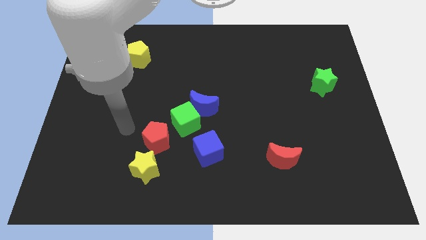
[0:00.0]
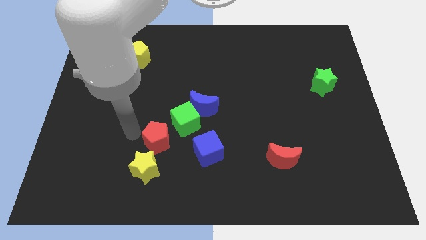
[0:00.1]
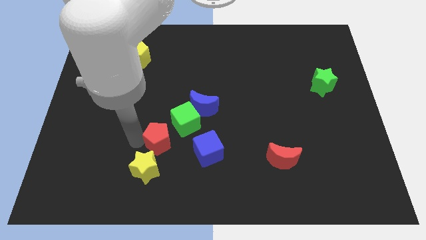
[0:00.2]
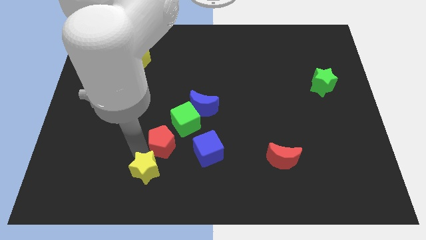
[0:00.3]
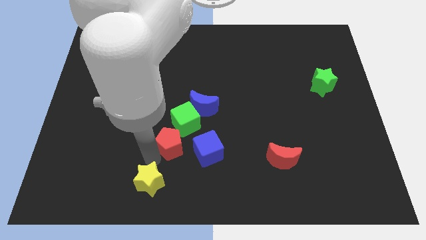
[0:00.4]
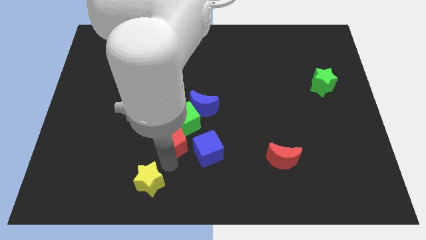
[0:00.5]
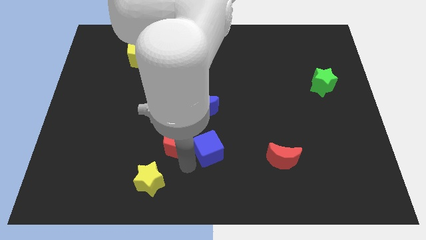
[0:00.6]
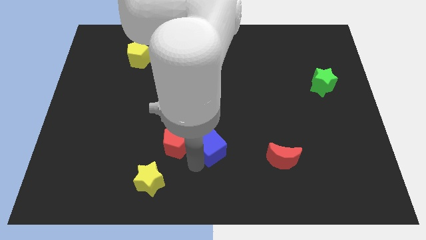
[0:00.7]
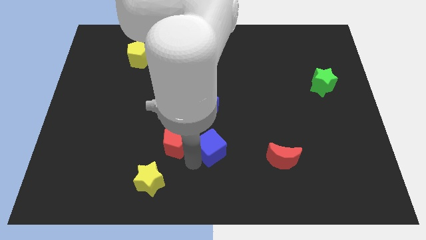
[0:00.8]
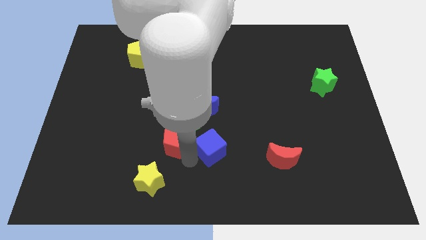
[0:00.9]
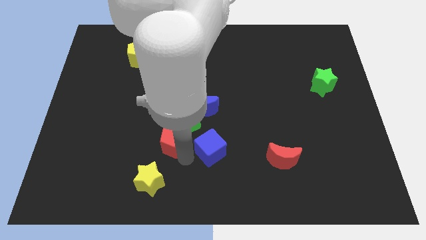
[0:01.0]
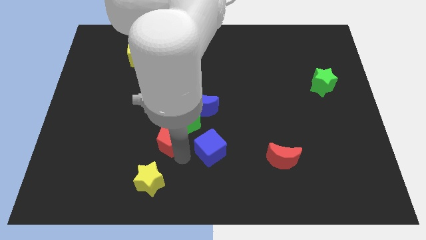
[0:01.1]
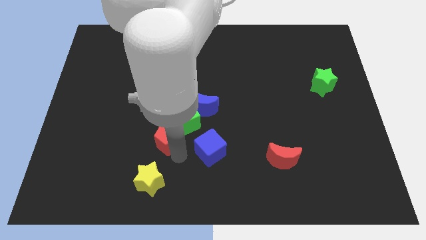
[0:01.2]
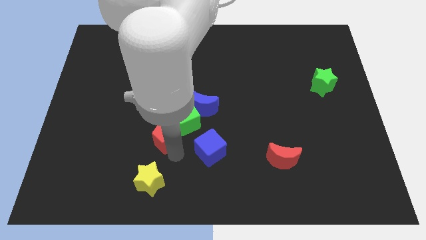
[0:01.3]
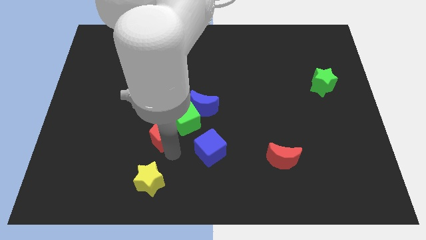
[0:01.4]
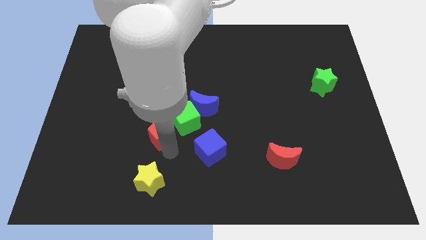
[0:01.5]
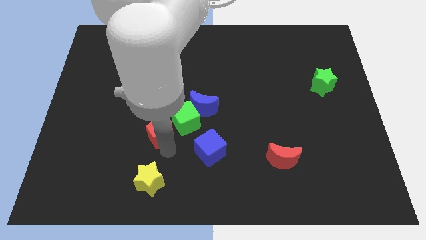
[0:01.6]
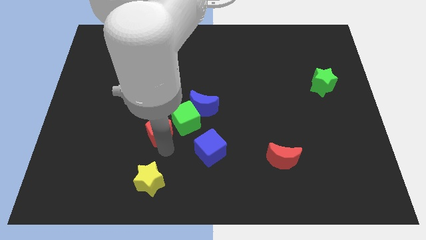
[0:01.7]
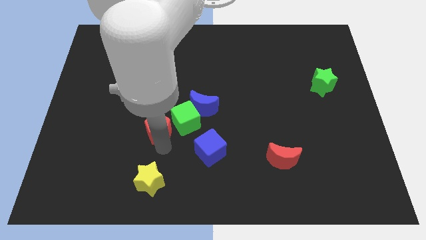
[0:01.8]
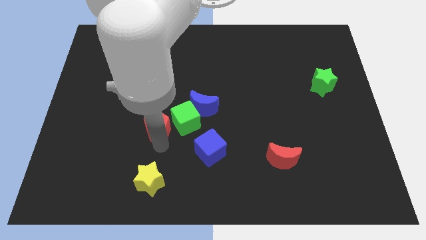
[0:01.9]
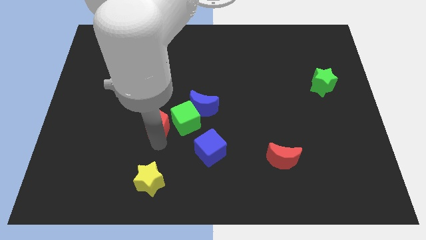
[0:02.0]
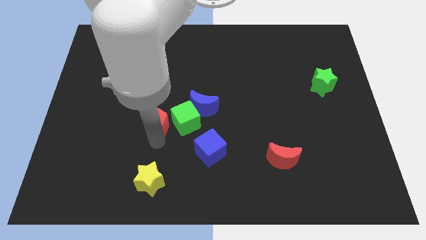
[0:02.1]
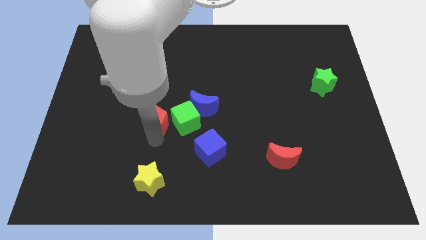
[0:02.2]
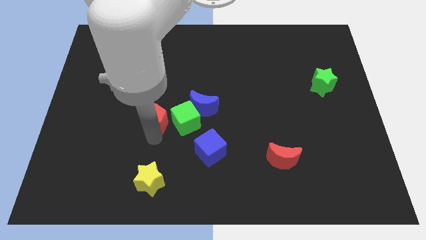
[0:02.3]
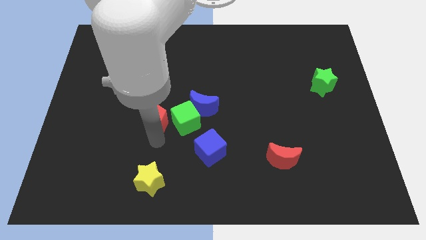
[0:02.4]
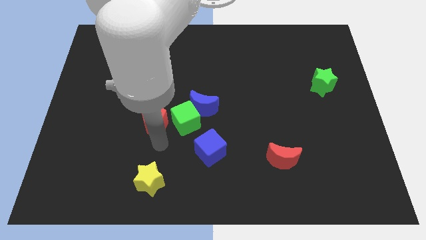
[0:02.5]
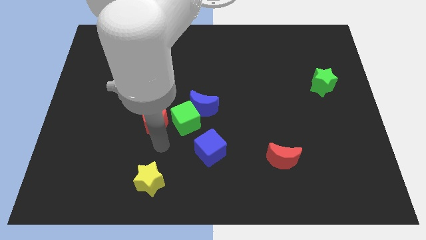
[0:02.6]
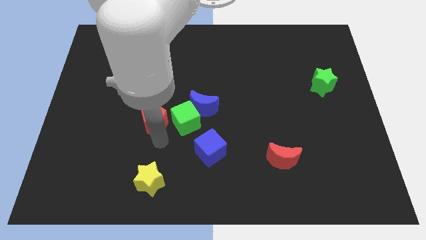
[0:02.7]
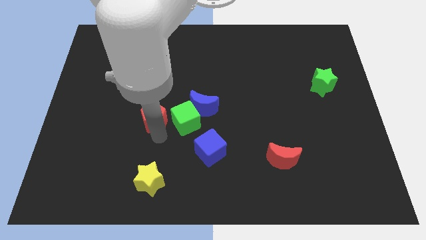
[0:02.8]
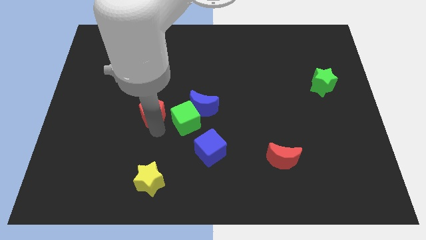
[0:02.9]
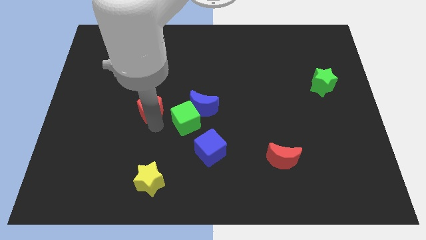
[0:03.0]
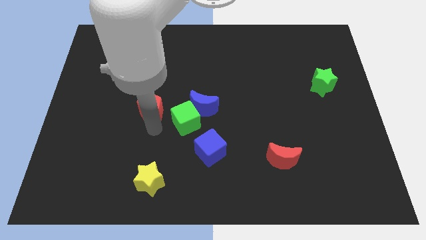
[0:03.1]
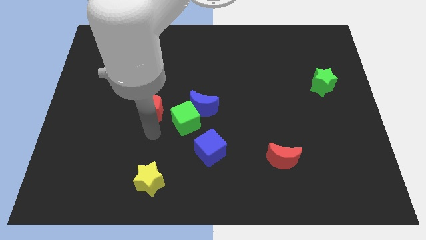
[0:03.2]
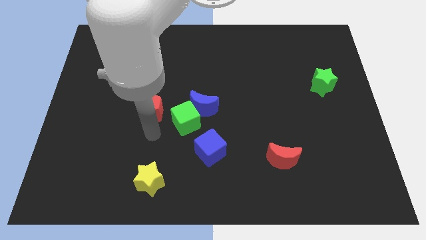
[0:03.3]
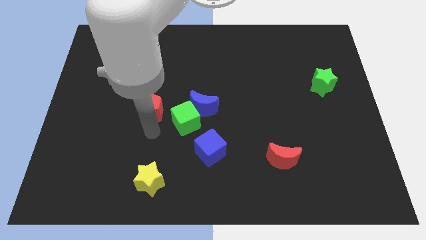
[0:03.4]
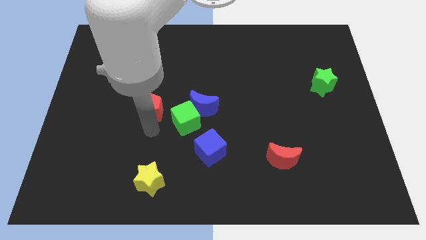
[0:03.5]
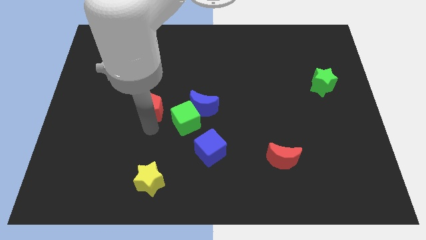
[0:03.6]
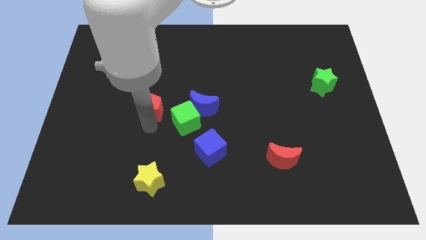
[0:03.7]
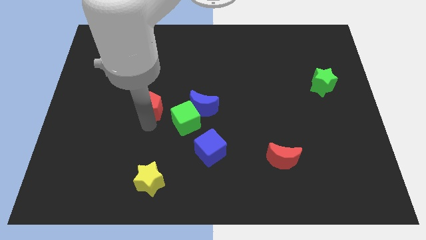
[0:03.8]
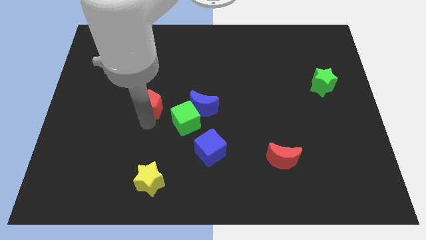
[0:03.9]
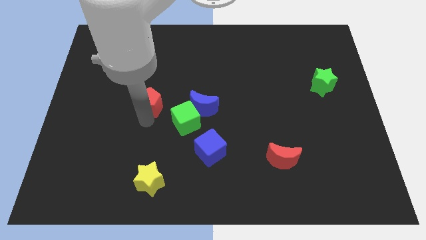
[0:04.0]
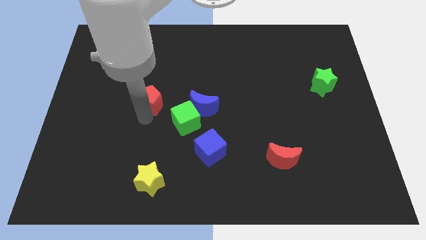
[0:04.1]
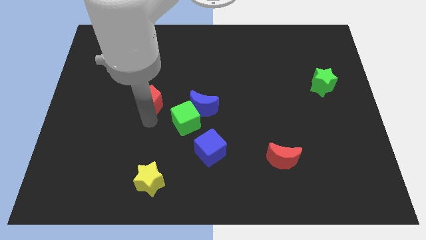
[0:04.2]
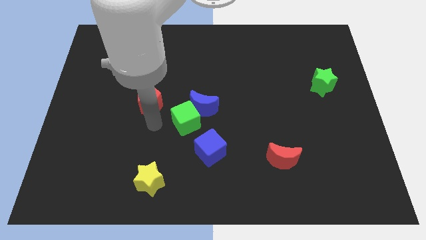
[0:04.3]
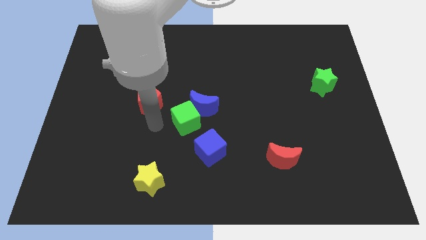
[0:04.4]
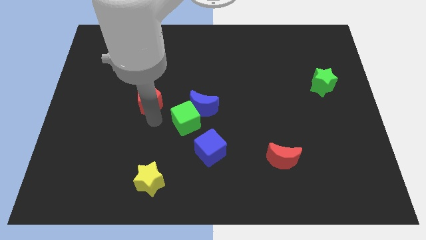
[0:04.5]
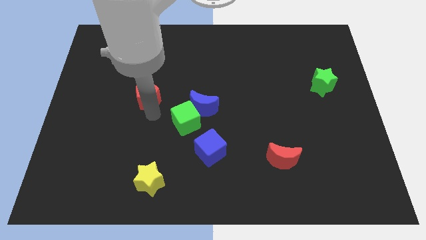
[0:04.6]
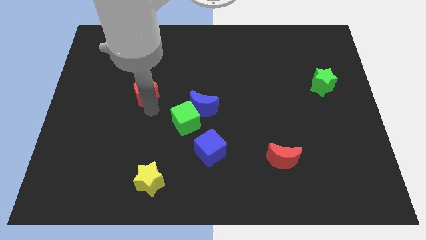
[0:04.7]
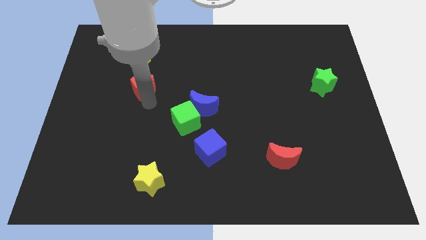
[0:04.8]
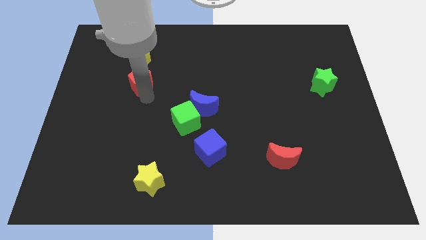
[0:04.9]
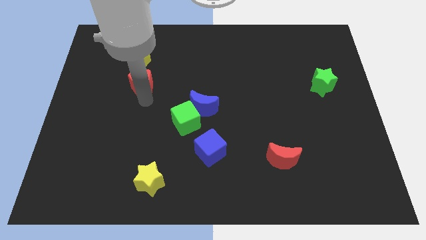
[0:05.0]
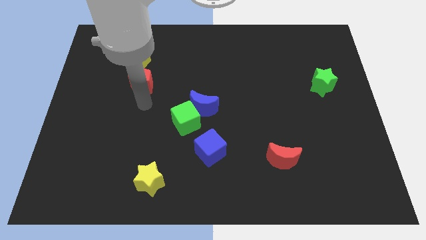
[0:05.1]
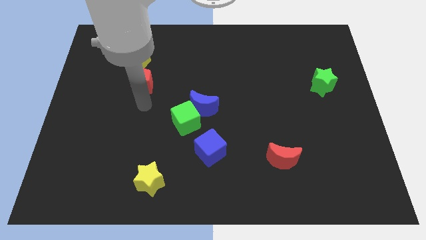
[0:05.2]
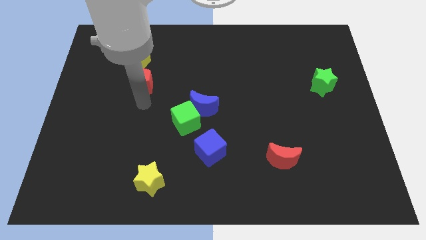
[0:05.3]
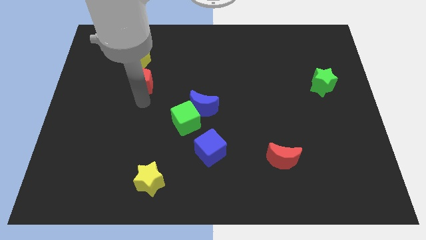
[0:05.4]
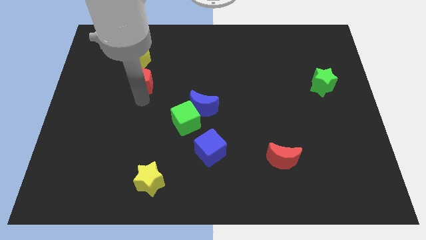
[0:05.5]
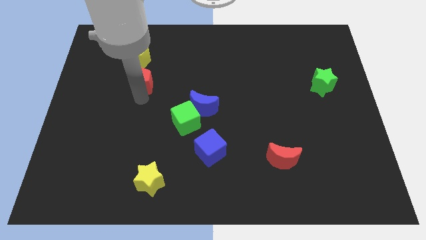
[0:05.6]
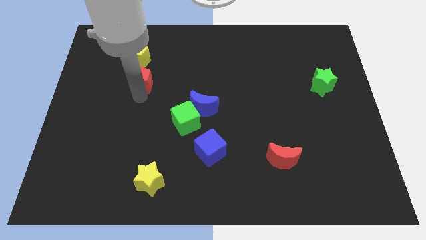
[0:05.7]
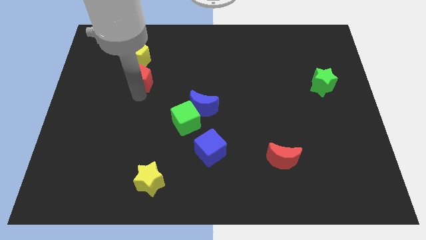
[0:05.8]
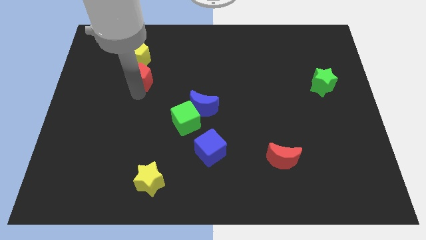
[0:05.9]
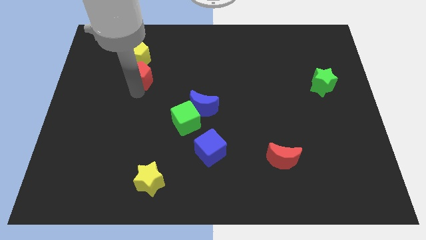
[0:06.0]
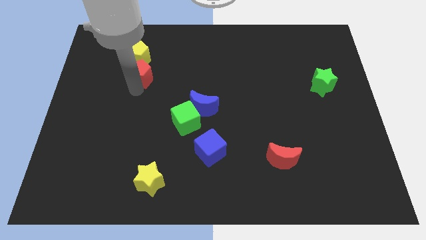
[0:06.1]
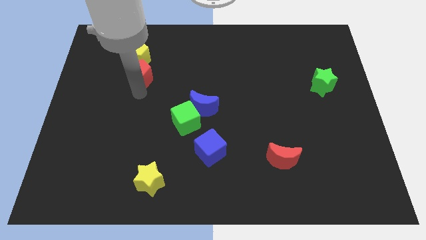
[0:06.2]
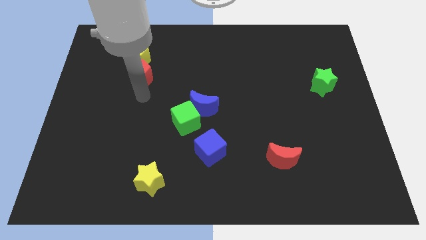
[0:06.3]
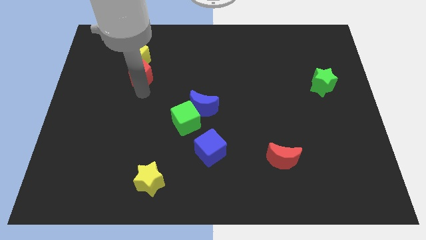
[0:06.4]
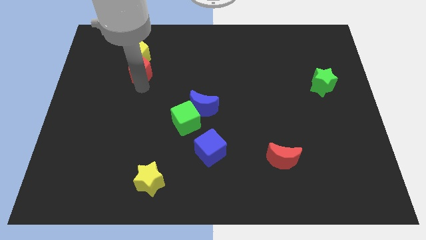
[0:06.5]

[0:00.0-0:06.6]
put the red pentagon towards the yellow pentagon
